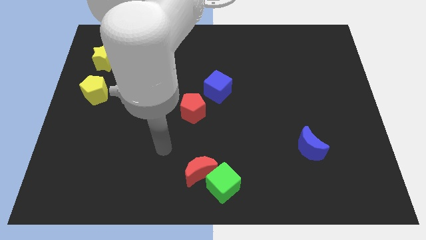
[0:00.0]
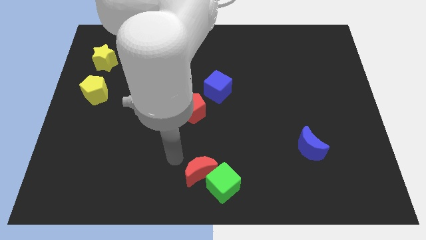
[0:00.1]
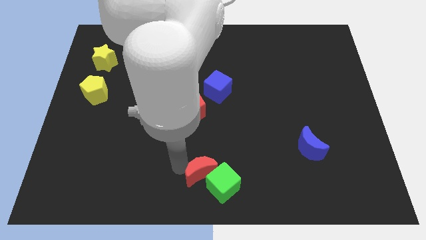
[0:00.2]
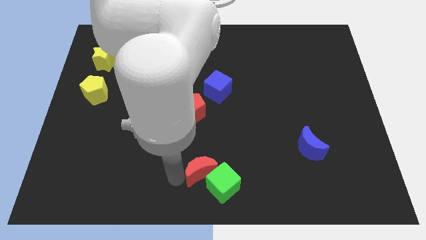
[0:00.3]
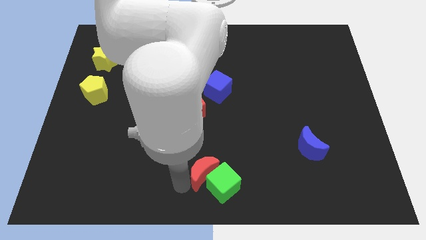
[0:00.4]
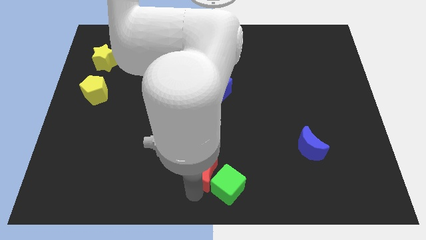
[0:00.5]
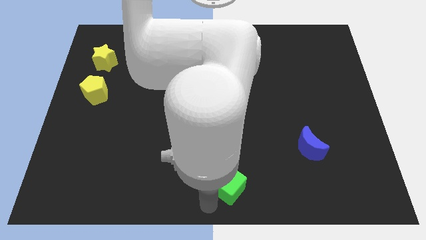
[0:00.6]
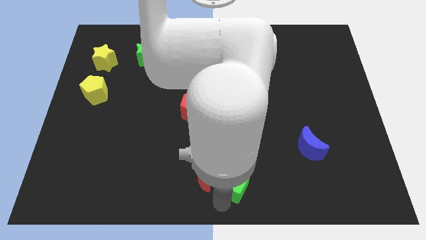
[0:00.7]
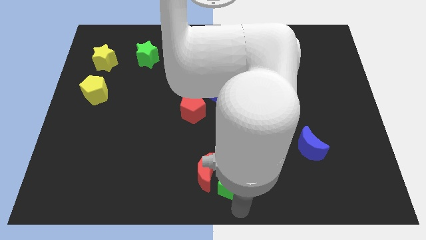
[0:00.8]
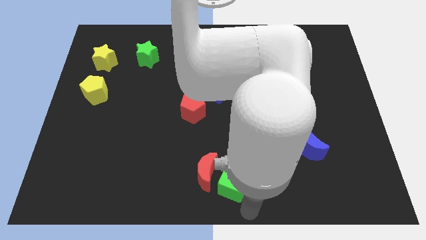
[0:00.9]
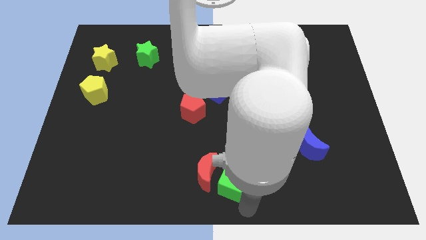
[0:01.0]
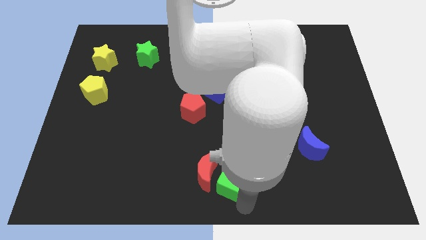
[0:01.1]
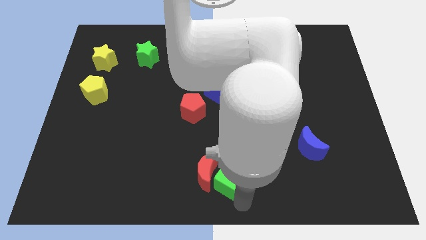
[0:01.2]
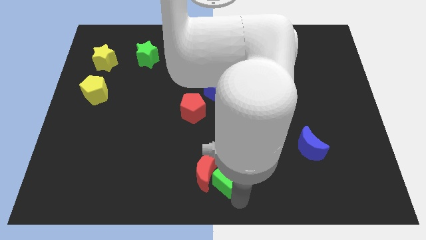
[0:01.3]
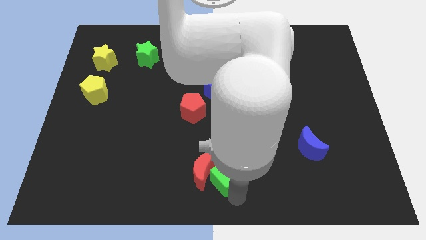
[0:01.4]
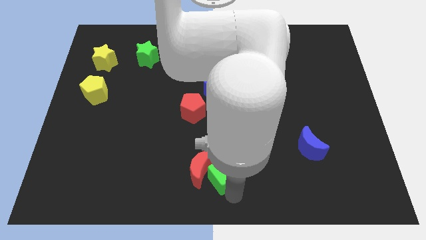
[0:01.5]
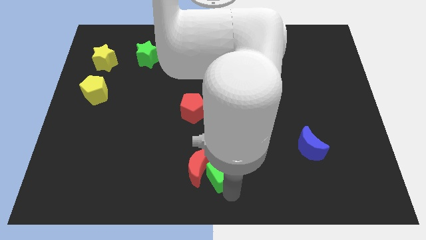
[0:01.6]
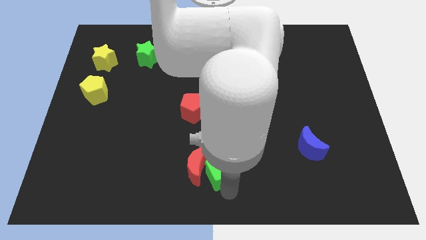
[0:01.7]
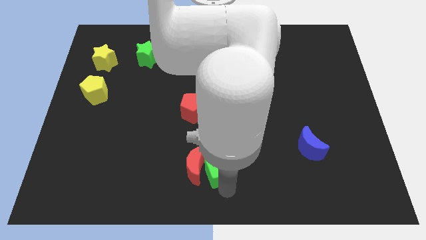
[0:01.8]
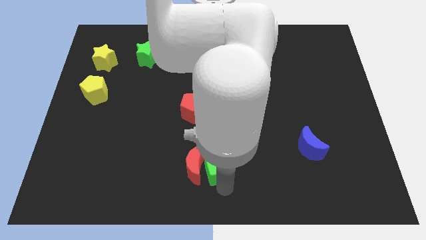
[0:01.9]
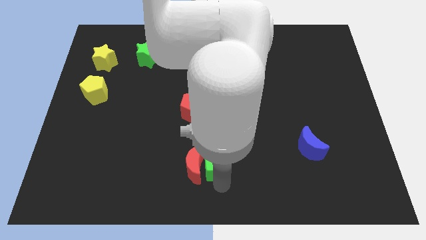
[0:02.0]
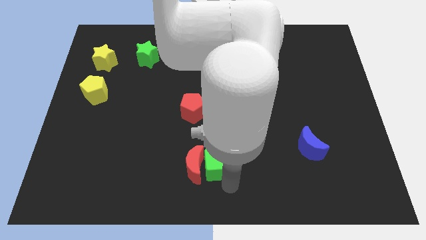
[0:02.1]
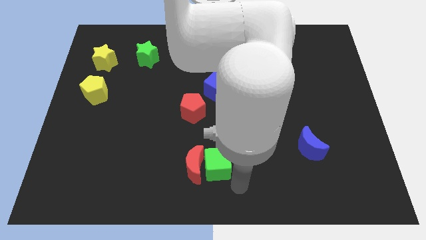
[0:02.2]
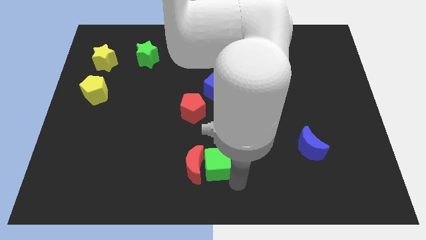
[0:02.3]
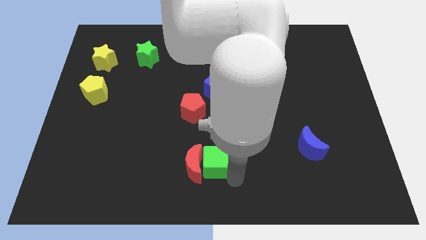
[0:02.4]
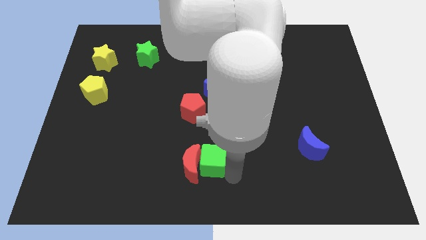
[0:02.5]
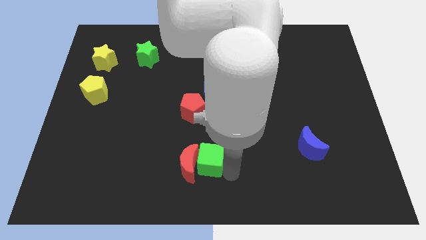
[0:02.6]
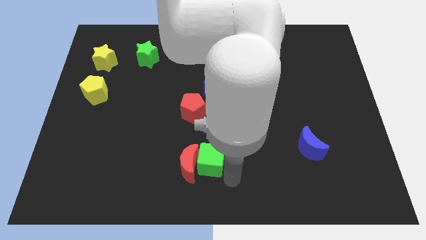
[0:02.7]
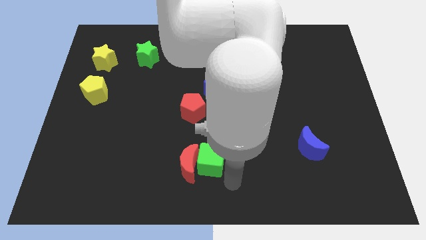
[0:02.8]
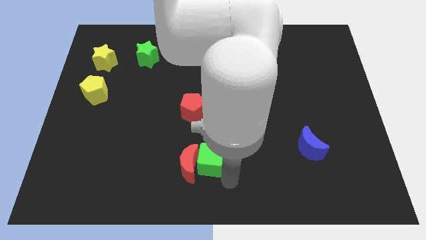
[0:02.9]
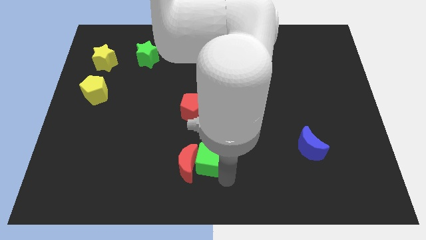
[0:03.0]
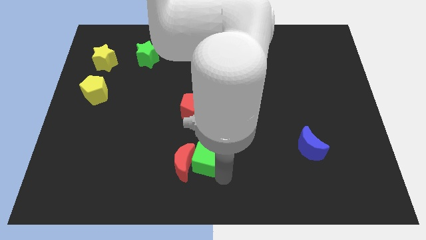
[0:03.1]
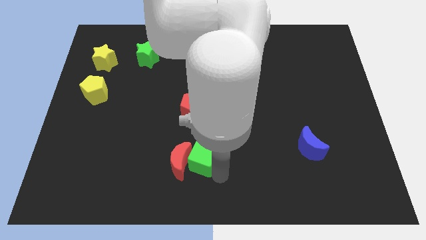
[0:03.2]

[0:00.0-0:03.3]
move the green cube somewhat upwards and to the left

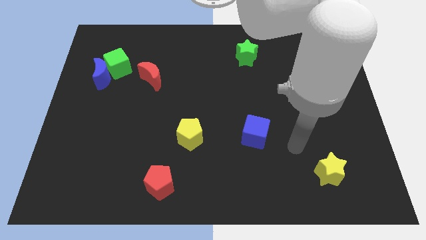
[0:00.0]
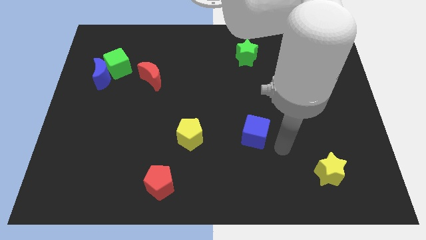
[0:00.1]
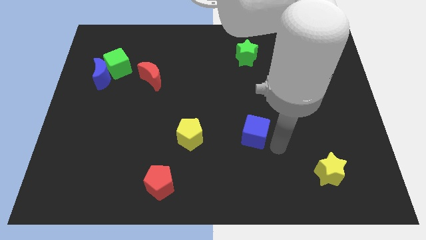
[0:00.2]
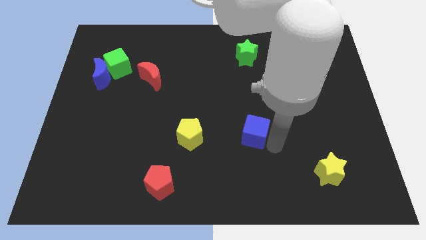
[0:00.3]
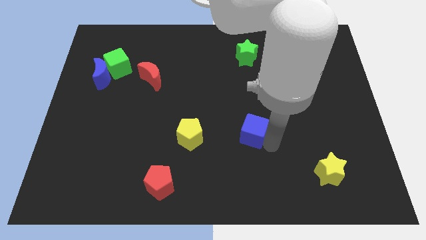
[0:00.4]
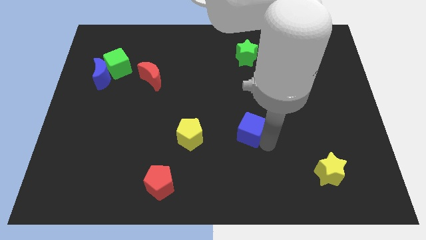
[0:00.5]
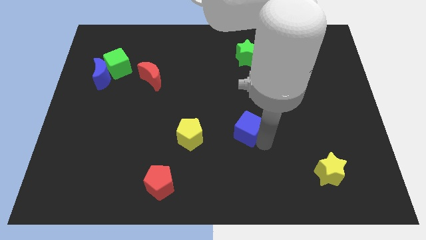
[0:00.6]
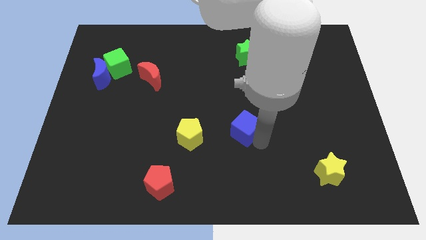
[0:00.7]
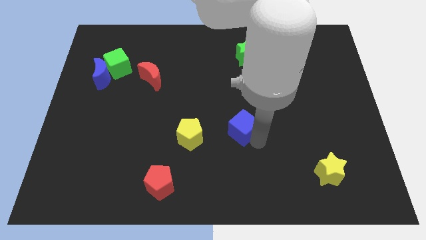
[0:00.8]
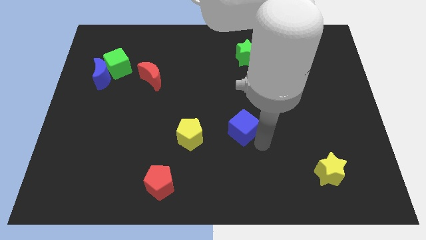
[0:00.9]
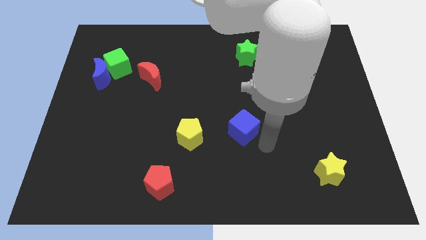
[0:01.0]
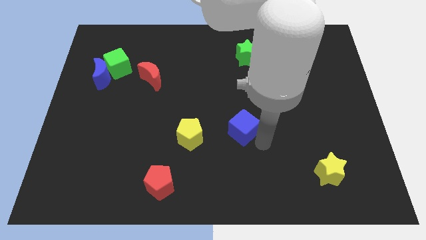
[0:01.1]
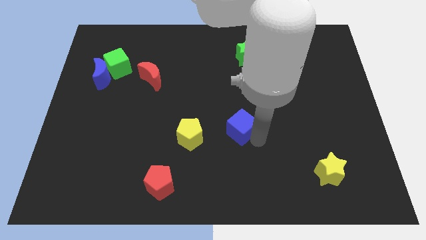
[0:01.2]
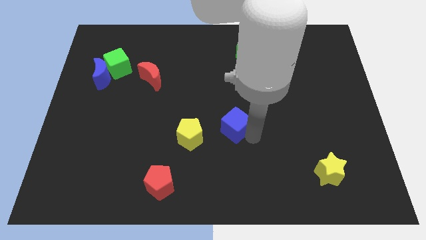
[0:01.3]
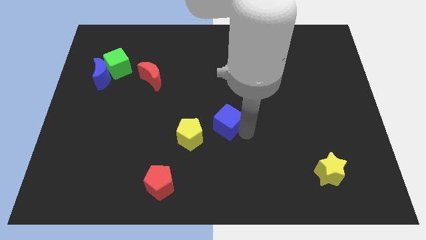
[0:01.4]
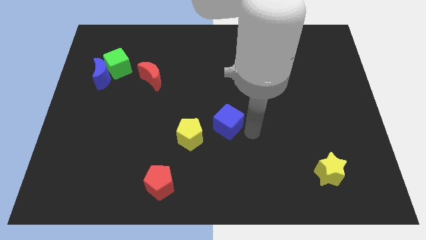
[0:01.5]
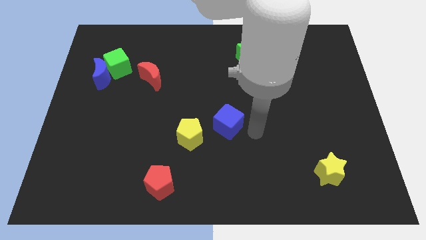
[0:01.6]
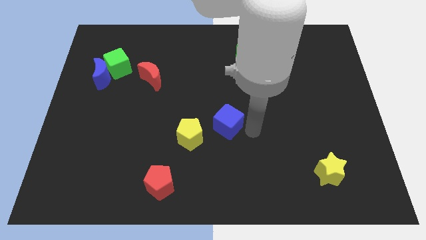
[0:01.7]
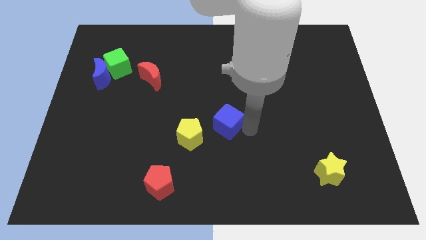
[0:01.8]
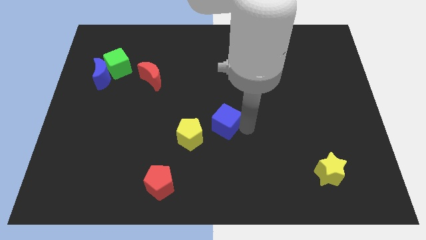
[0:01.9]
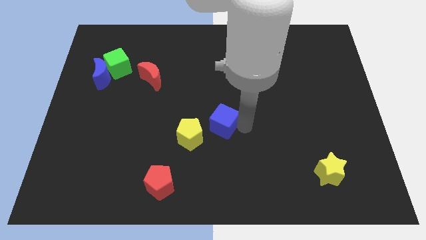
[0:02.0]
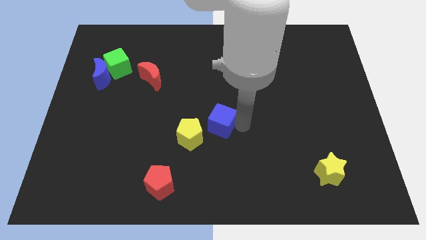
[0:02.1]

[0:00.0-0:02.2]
push the blue cube left a bit

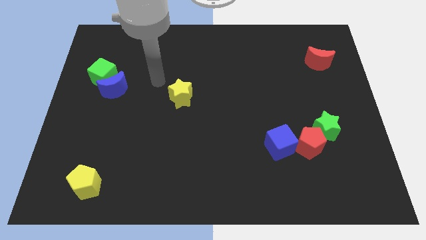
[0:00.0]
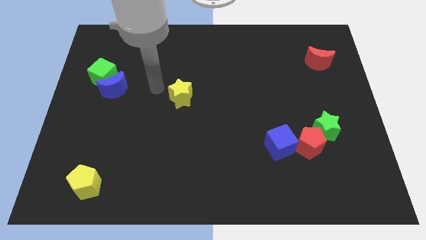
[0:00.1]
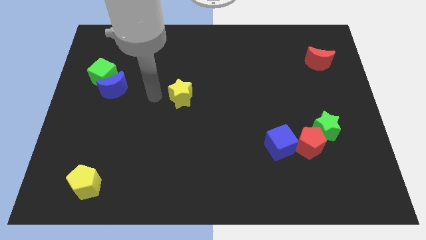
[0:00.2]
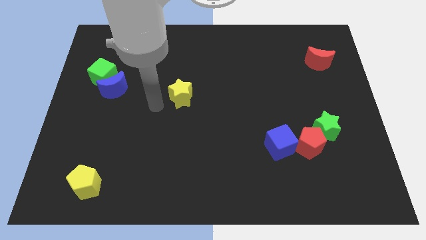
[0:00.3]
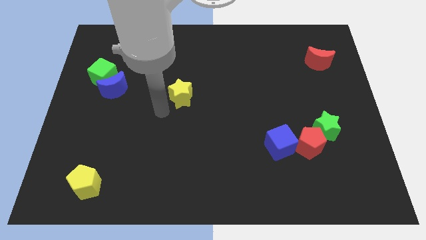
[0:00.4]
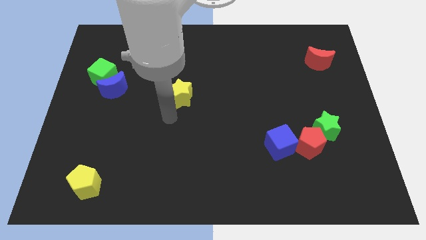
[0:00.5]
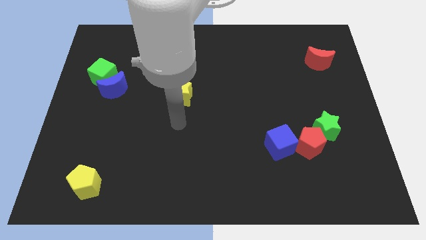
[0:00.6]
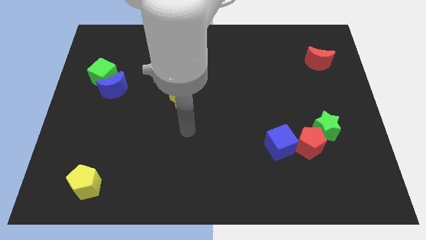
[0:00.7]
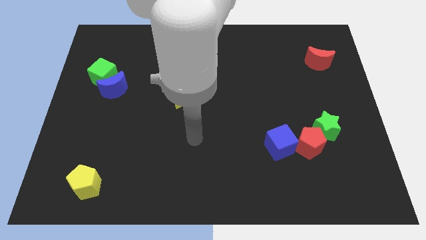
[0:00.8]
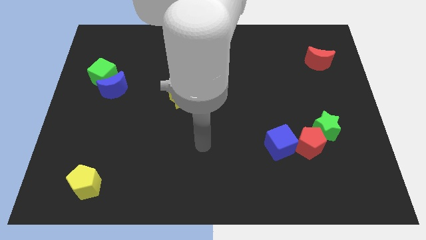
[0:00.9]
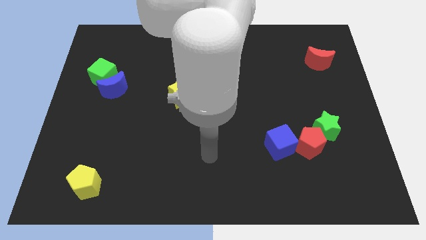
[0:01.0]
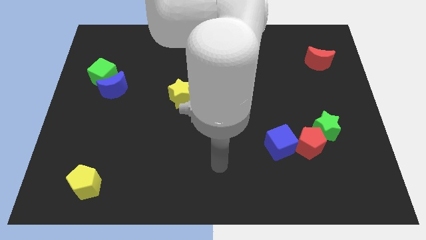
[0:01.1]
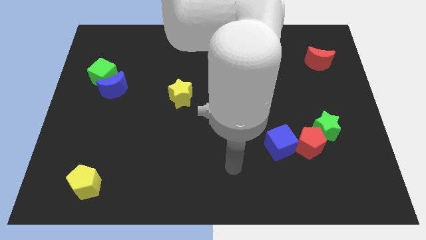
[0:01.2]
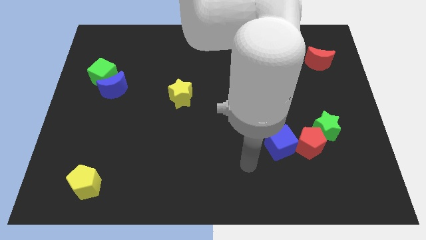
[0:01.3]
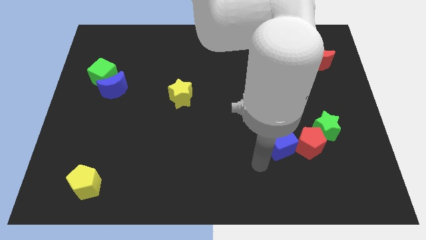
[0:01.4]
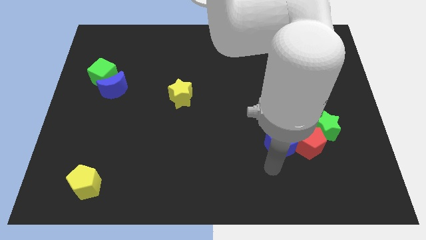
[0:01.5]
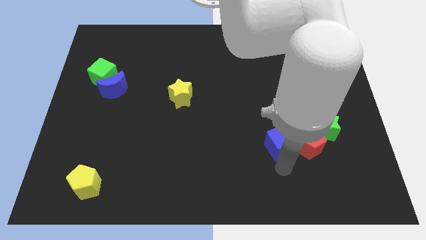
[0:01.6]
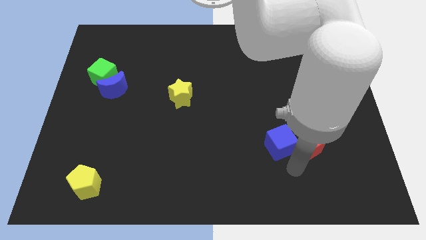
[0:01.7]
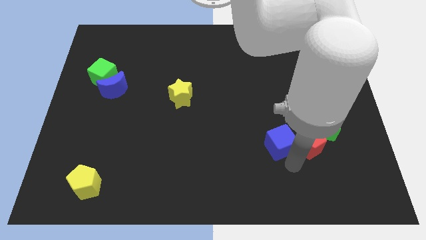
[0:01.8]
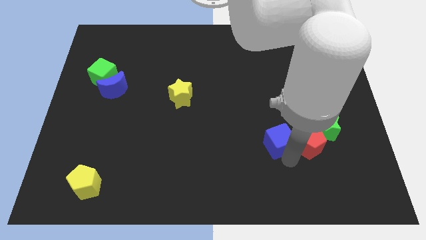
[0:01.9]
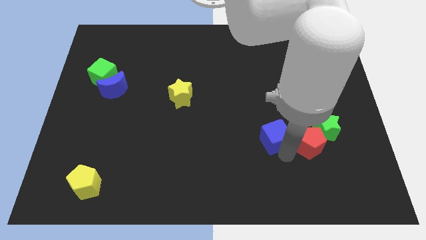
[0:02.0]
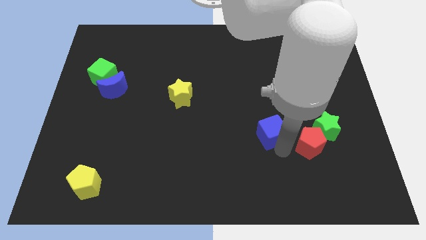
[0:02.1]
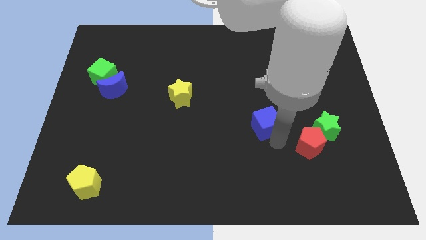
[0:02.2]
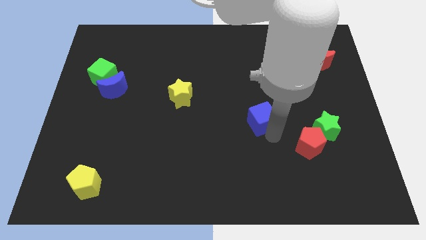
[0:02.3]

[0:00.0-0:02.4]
push the blue cube upwards and left slightly

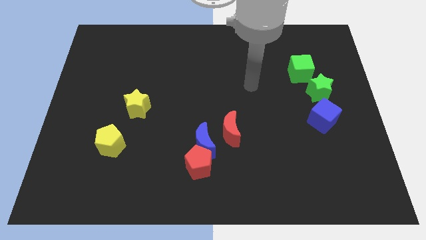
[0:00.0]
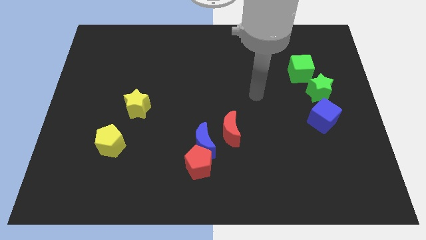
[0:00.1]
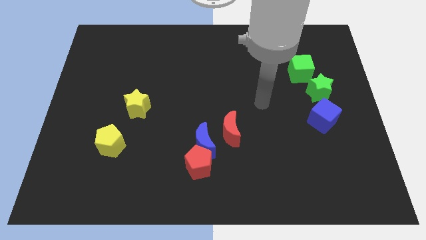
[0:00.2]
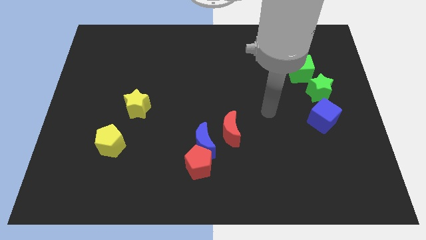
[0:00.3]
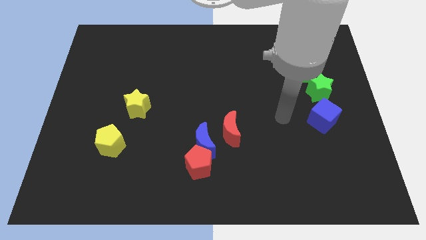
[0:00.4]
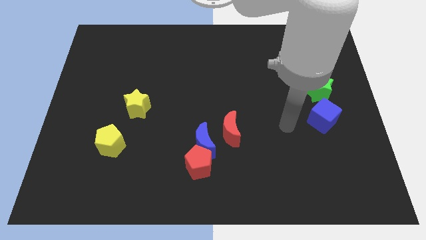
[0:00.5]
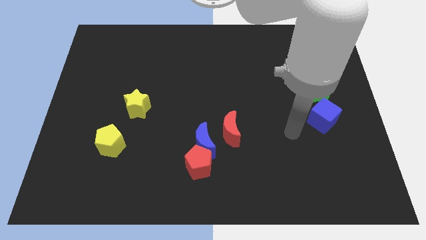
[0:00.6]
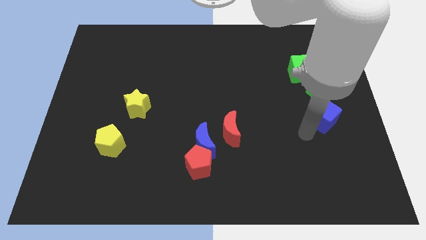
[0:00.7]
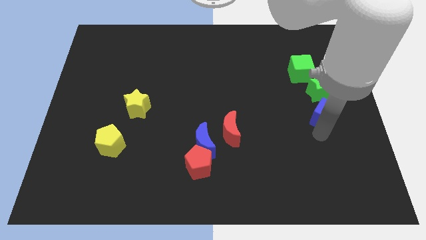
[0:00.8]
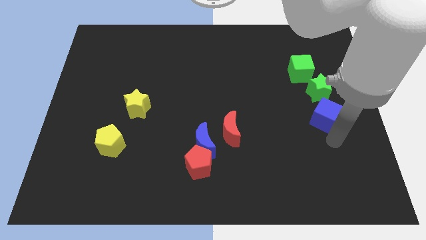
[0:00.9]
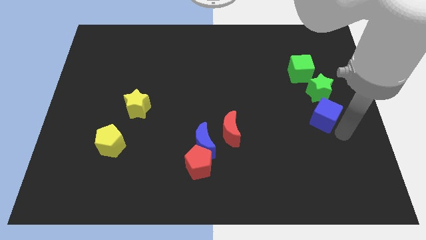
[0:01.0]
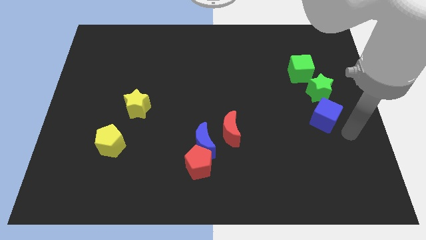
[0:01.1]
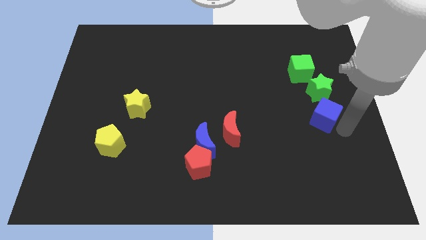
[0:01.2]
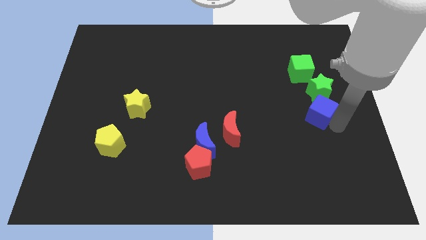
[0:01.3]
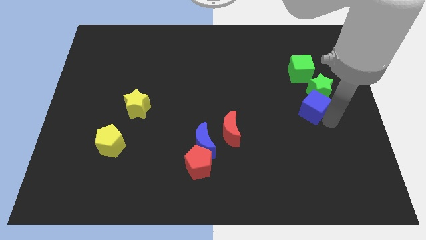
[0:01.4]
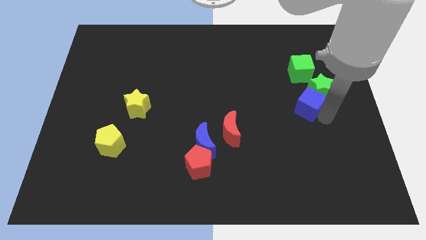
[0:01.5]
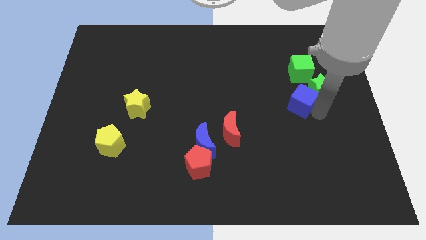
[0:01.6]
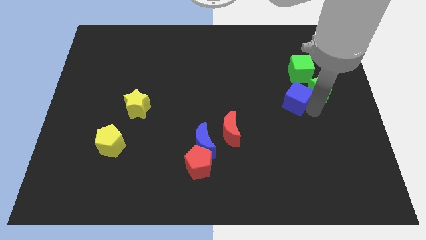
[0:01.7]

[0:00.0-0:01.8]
slightly move the blue cube upwards and then to the left
